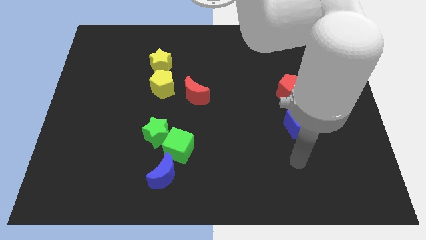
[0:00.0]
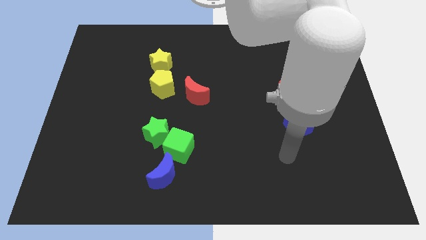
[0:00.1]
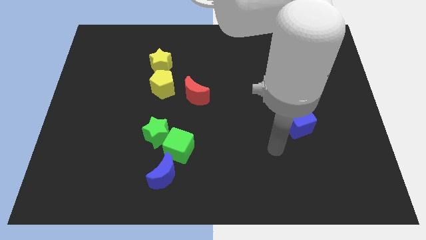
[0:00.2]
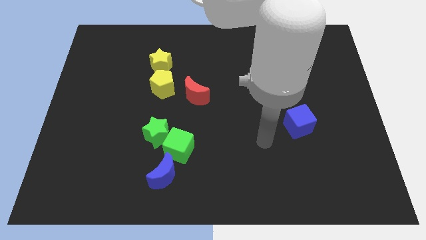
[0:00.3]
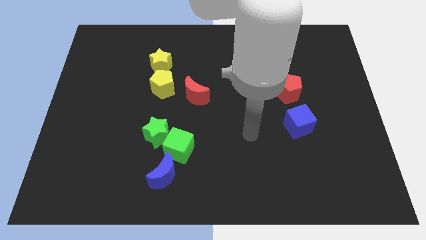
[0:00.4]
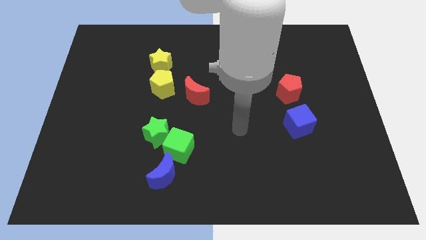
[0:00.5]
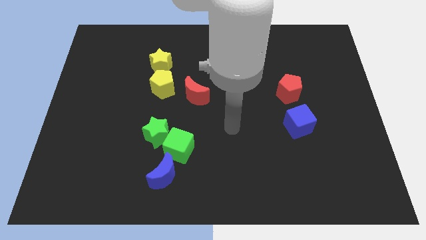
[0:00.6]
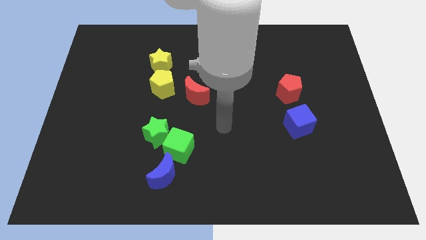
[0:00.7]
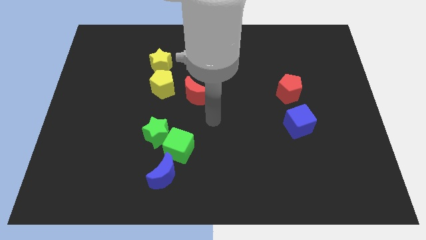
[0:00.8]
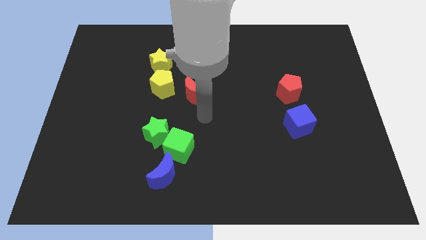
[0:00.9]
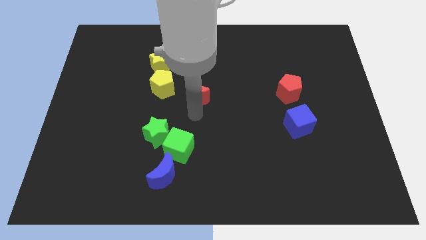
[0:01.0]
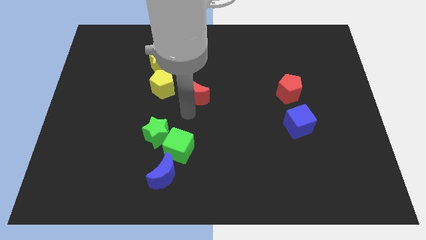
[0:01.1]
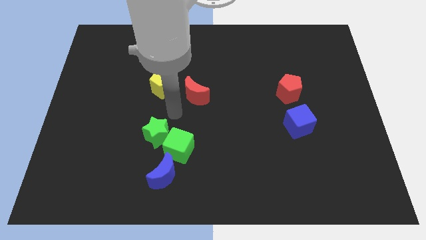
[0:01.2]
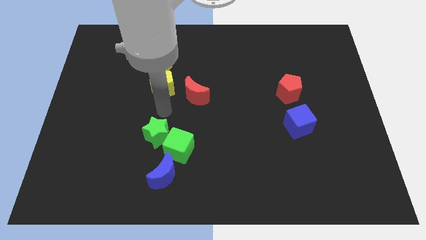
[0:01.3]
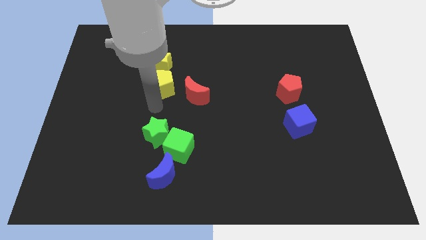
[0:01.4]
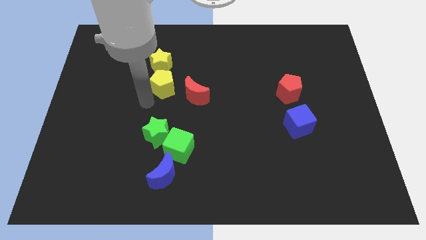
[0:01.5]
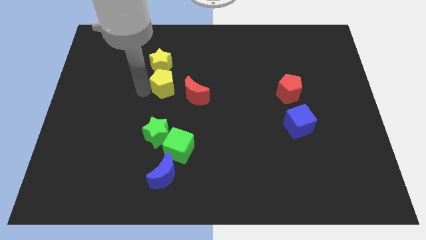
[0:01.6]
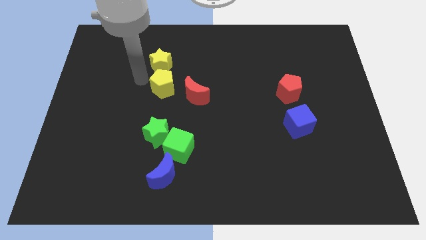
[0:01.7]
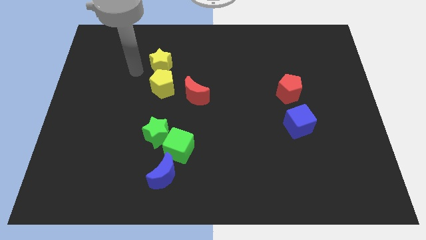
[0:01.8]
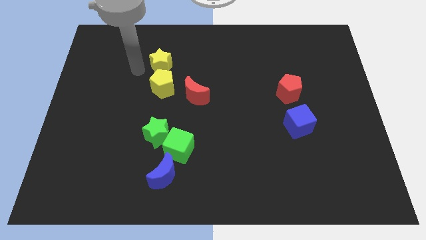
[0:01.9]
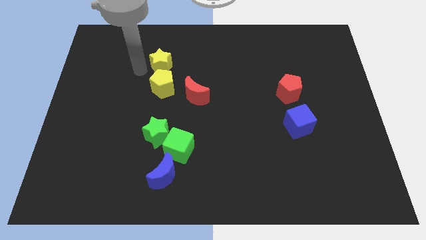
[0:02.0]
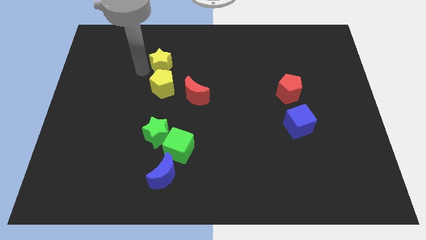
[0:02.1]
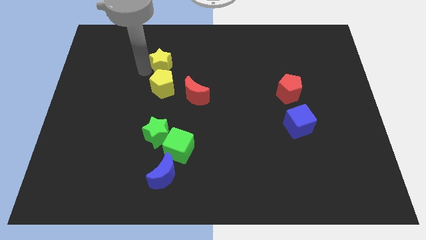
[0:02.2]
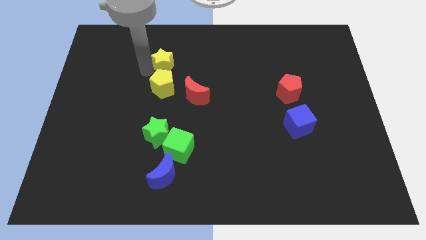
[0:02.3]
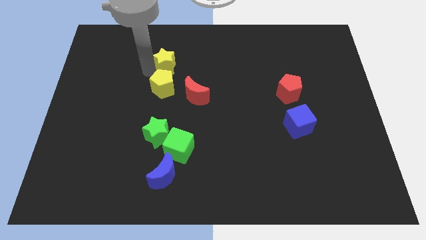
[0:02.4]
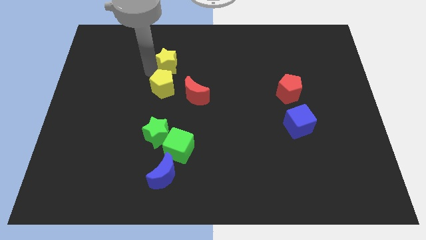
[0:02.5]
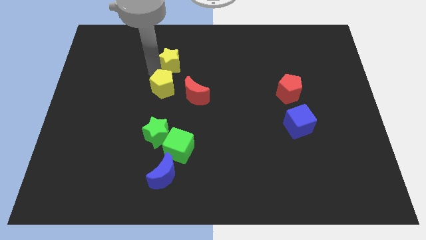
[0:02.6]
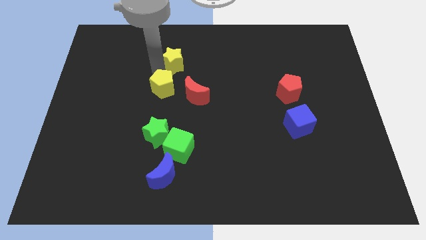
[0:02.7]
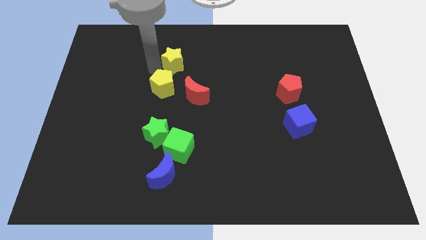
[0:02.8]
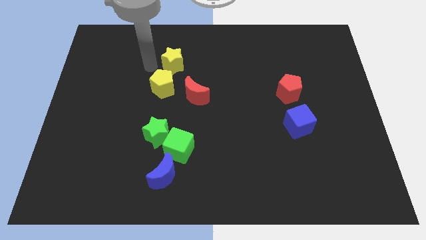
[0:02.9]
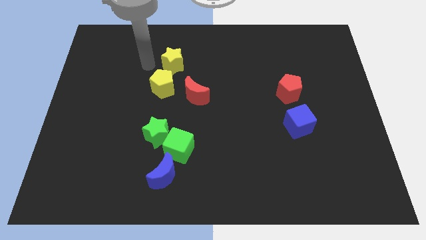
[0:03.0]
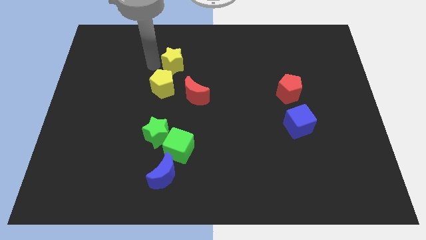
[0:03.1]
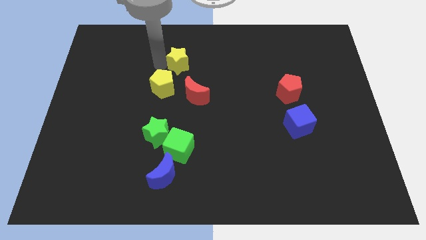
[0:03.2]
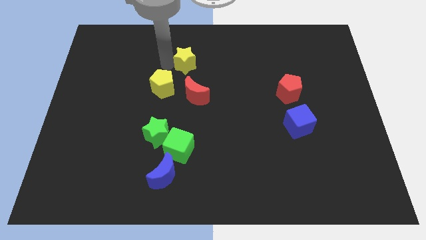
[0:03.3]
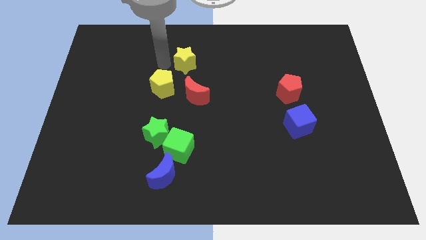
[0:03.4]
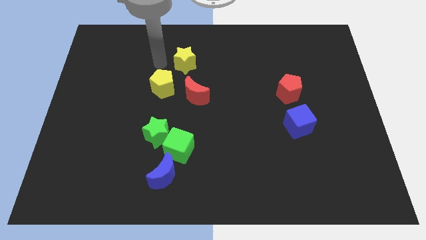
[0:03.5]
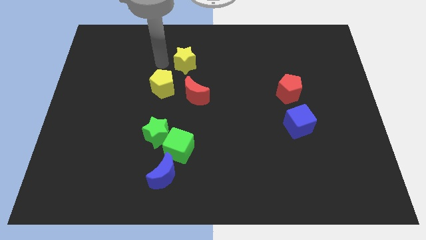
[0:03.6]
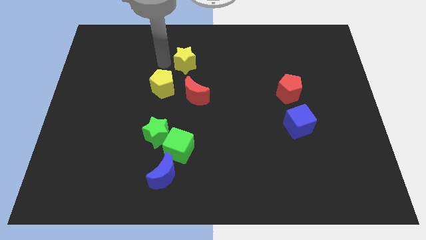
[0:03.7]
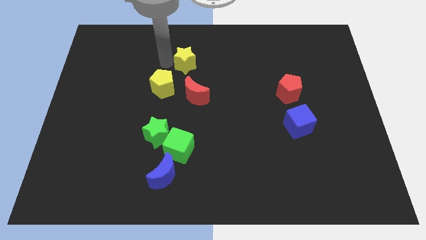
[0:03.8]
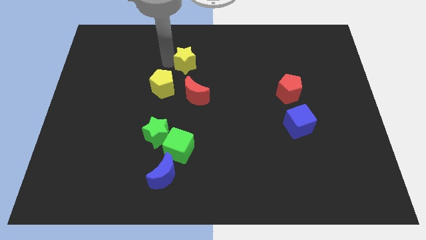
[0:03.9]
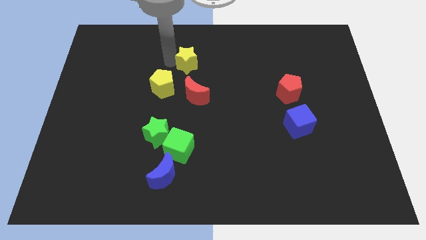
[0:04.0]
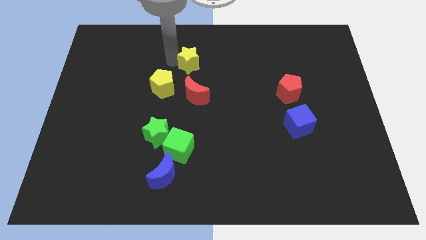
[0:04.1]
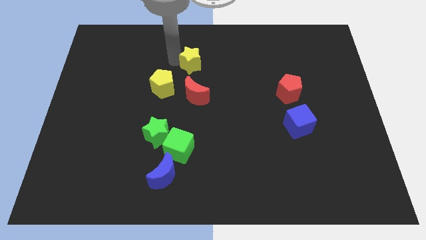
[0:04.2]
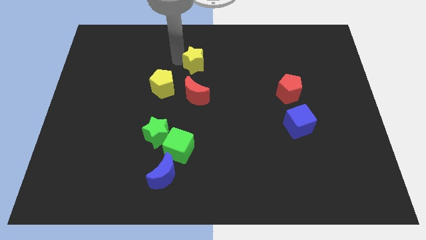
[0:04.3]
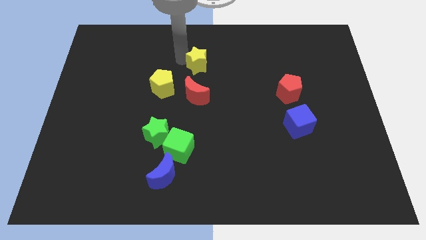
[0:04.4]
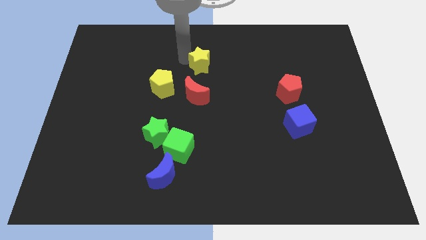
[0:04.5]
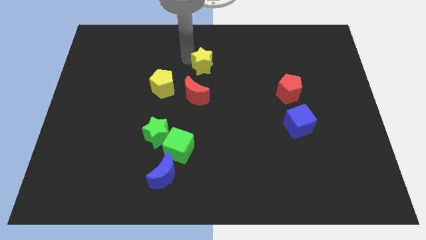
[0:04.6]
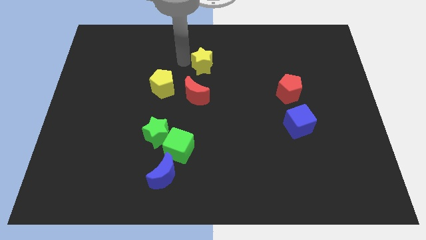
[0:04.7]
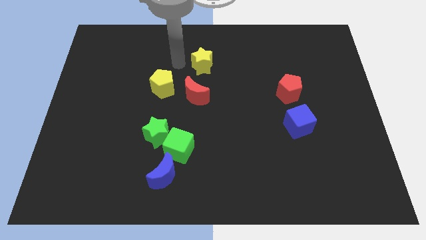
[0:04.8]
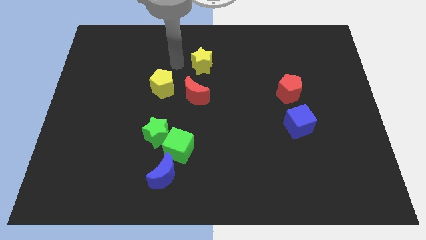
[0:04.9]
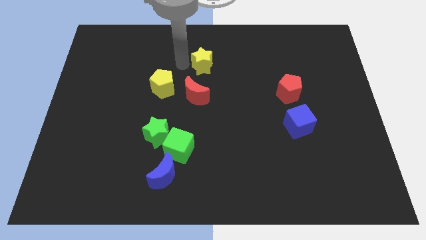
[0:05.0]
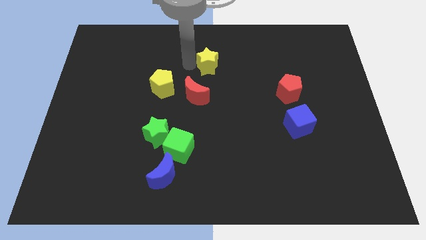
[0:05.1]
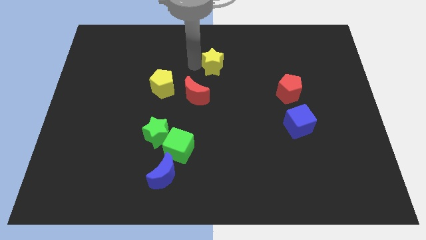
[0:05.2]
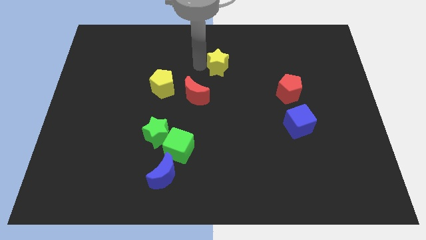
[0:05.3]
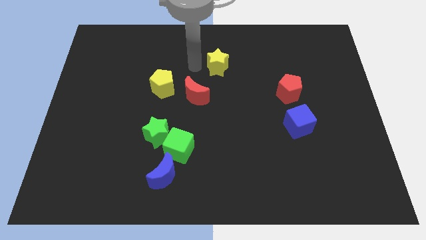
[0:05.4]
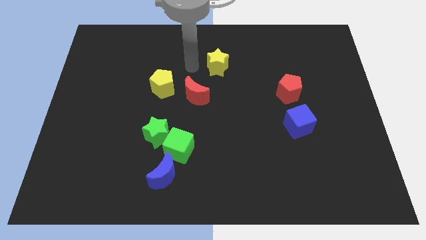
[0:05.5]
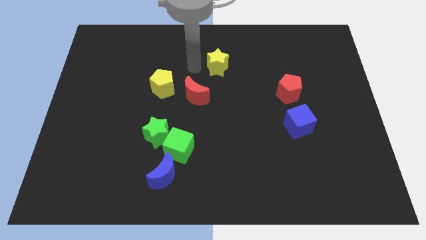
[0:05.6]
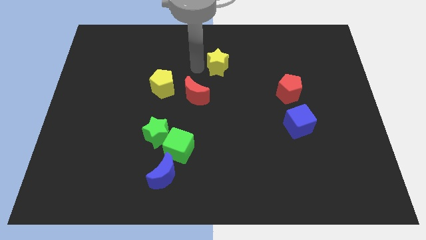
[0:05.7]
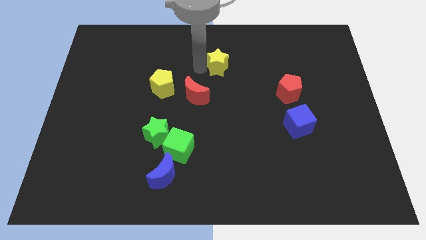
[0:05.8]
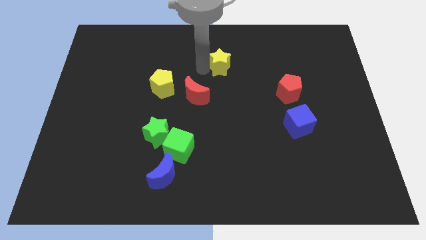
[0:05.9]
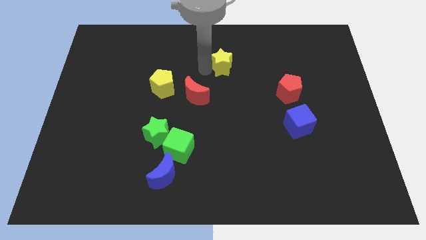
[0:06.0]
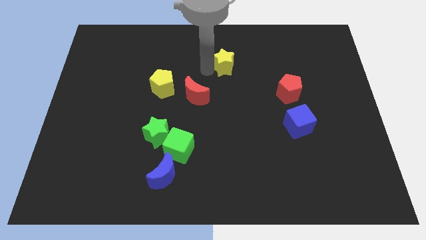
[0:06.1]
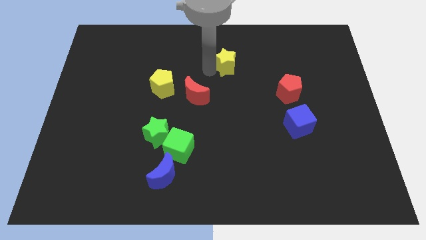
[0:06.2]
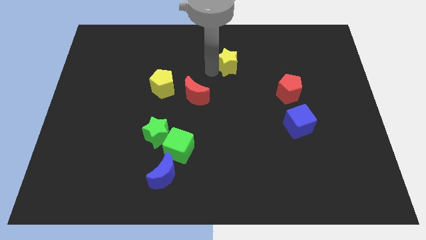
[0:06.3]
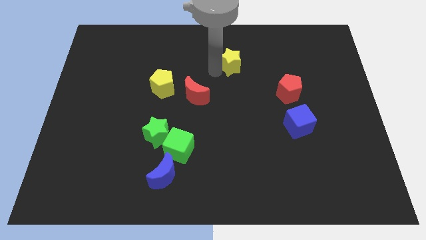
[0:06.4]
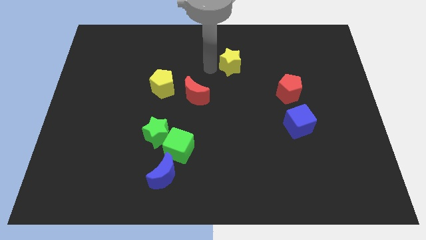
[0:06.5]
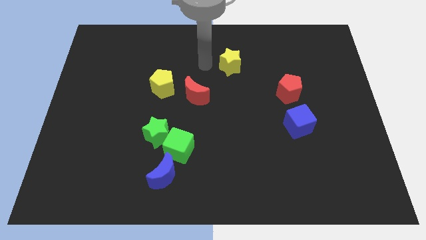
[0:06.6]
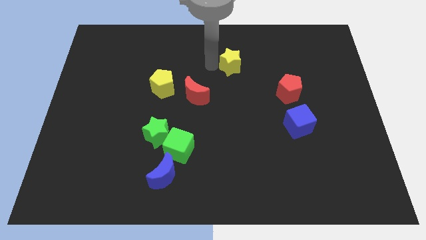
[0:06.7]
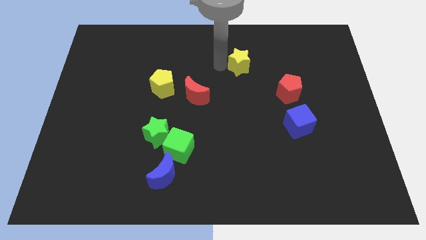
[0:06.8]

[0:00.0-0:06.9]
push the yellow star right

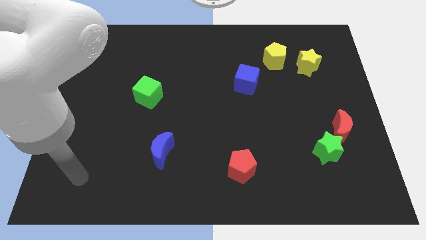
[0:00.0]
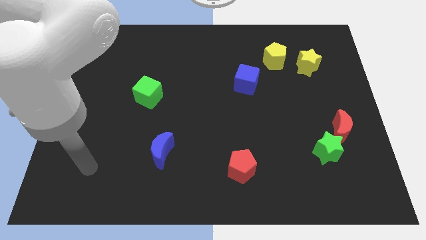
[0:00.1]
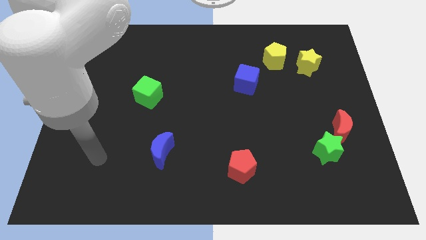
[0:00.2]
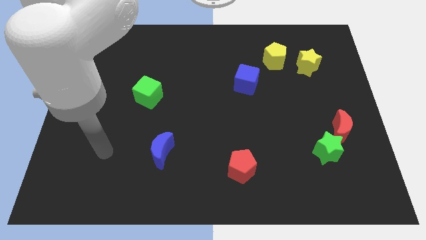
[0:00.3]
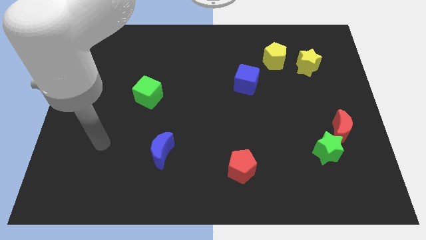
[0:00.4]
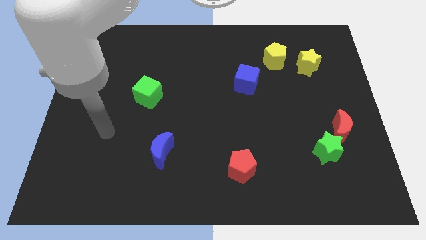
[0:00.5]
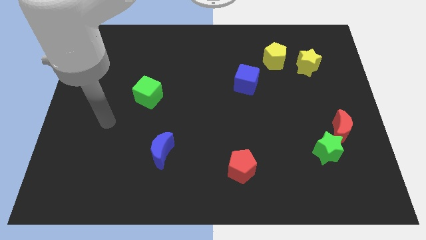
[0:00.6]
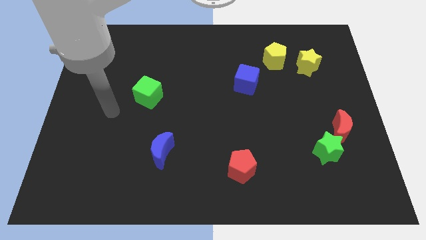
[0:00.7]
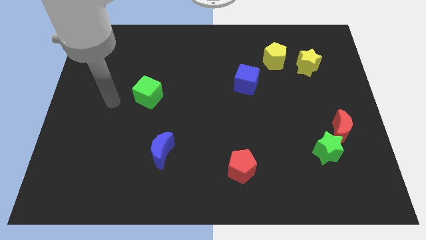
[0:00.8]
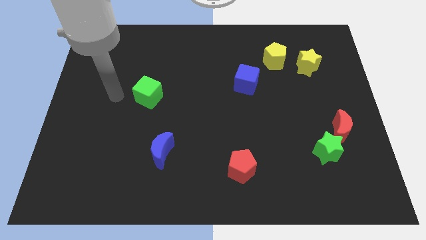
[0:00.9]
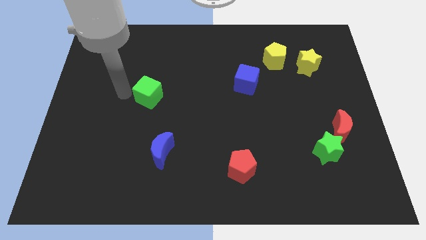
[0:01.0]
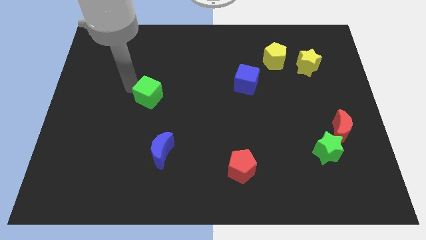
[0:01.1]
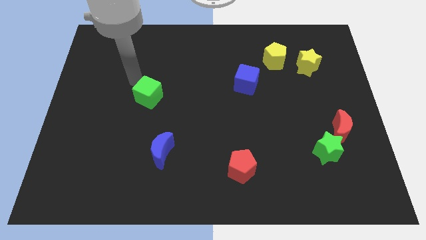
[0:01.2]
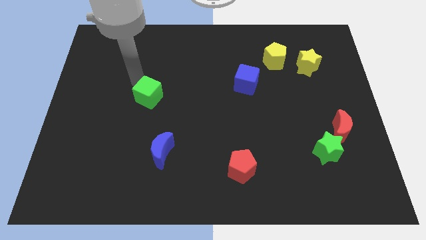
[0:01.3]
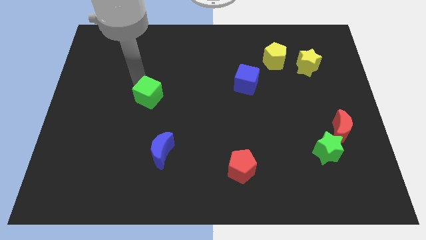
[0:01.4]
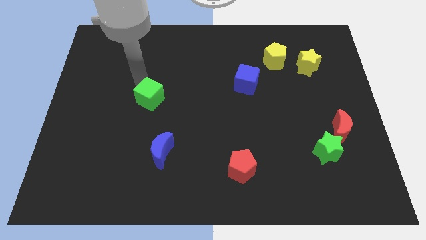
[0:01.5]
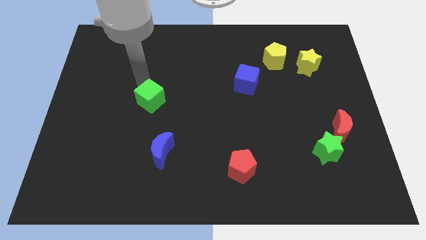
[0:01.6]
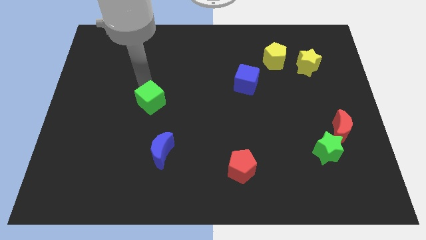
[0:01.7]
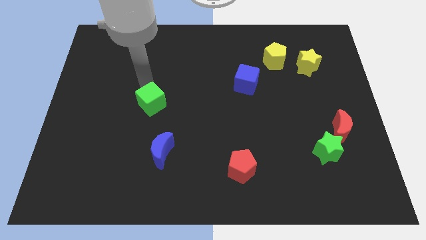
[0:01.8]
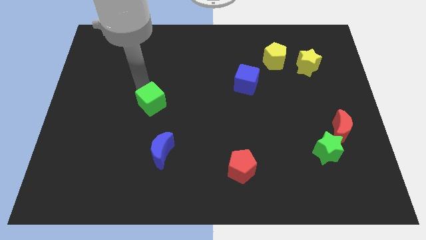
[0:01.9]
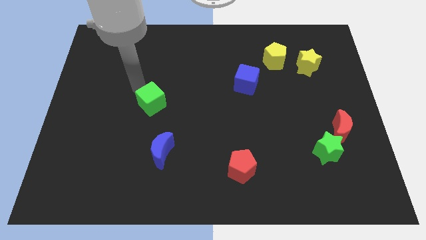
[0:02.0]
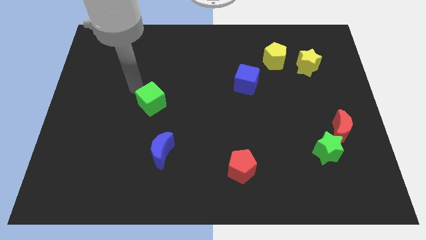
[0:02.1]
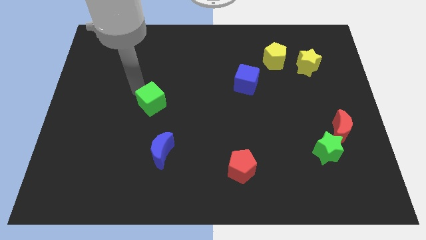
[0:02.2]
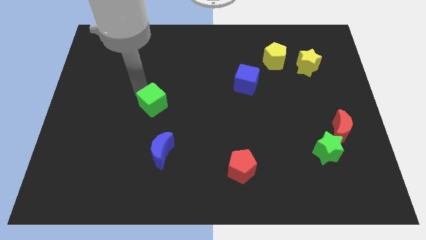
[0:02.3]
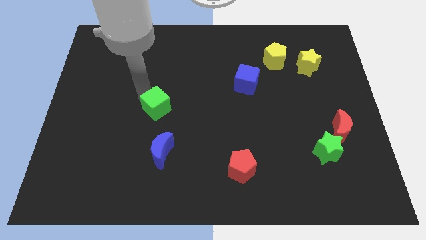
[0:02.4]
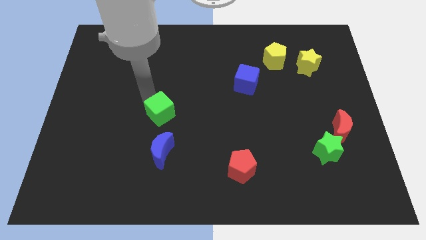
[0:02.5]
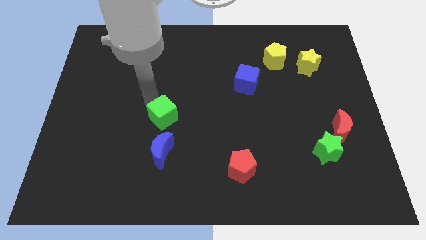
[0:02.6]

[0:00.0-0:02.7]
move the green cube somewhat downwards and then to the right
